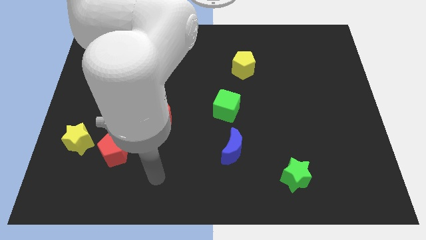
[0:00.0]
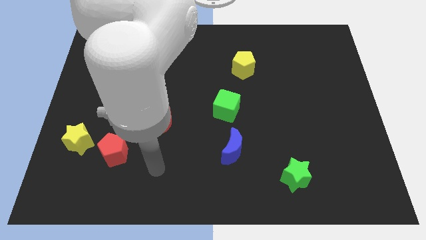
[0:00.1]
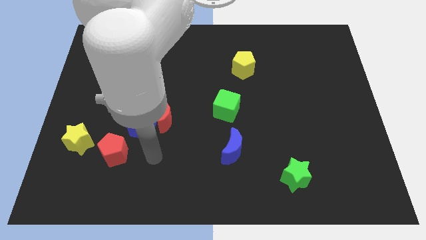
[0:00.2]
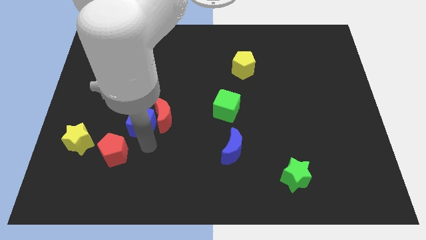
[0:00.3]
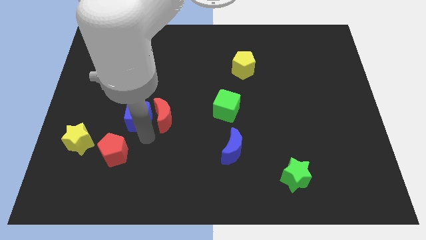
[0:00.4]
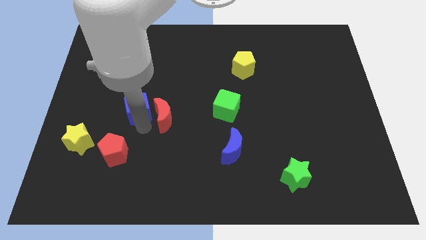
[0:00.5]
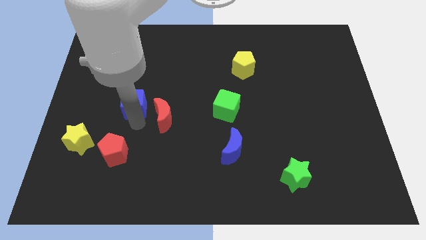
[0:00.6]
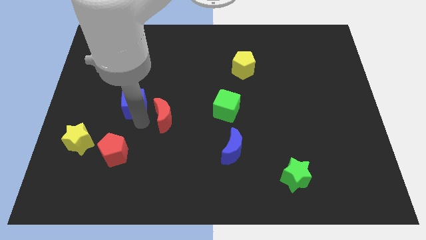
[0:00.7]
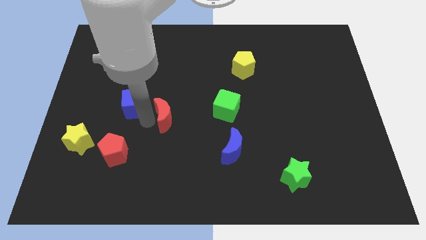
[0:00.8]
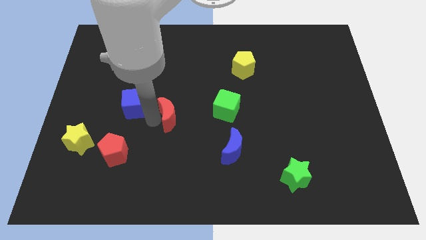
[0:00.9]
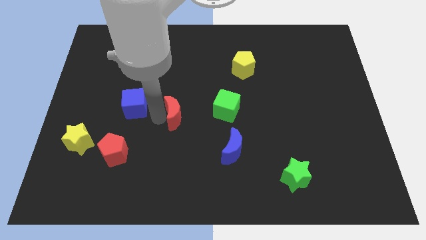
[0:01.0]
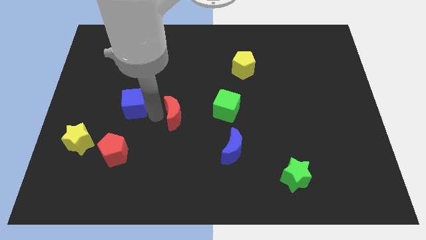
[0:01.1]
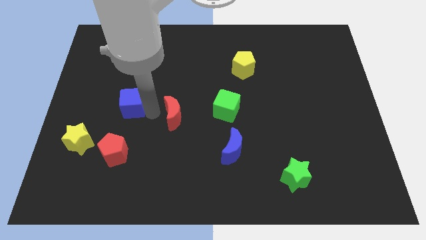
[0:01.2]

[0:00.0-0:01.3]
separate the red moon from the blue cube

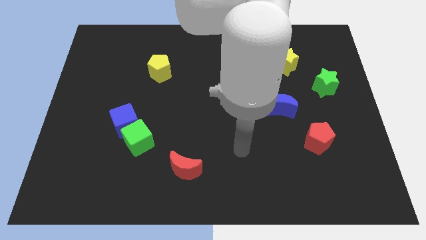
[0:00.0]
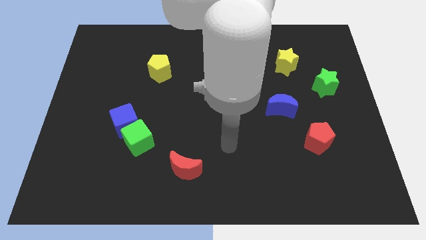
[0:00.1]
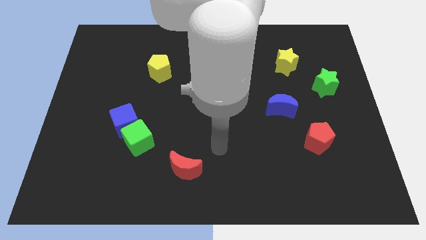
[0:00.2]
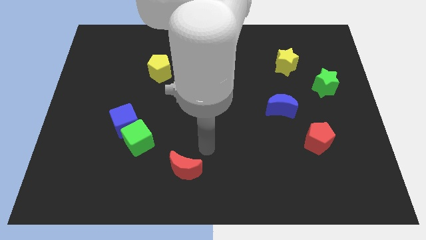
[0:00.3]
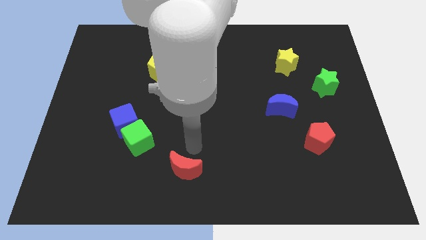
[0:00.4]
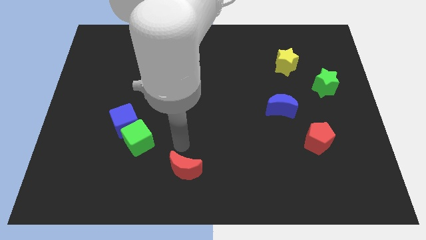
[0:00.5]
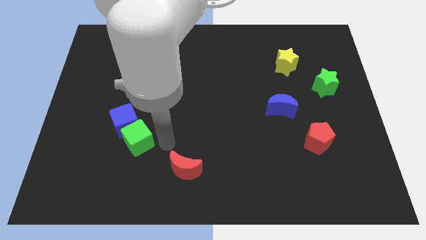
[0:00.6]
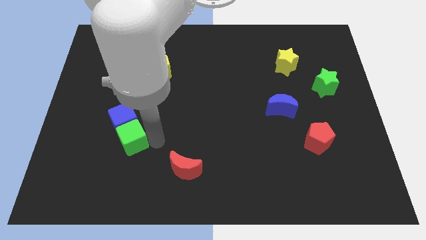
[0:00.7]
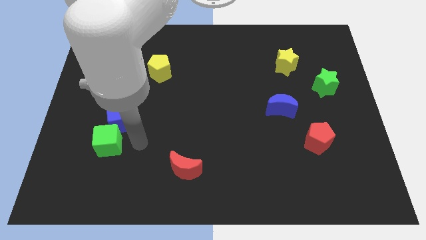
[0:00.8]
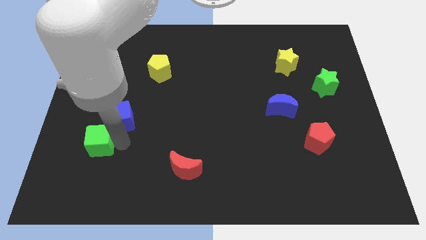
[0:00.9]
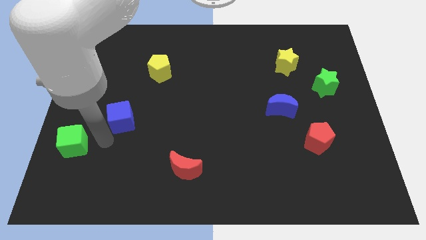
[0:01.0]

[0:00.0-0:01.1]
pull the blue cube apart from the green cube

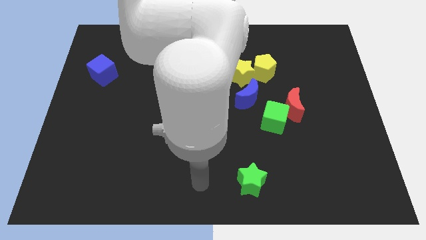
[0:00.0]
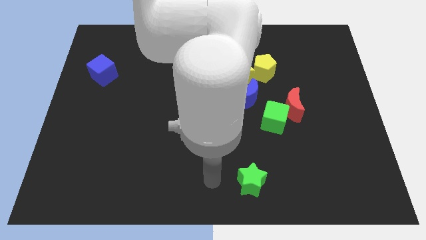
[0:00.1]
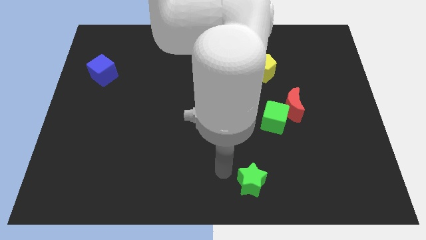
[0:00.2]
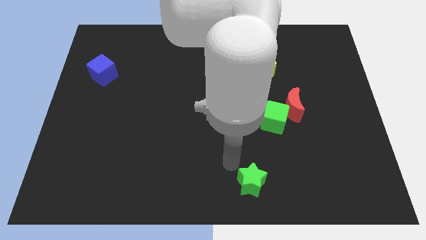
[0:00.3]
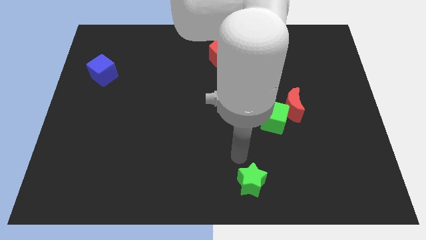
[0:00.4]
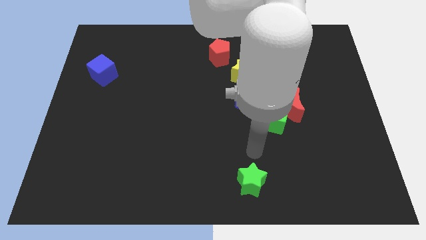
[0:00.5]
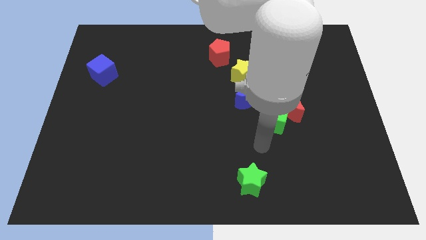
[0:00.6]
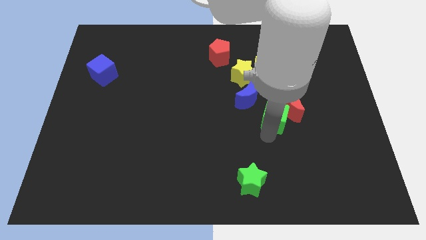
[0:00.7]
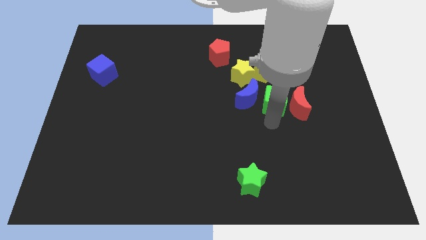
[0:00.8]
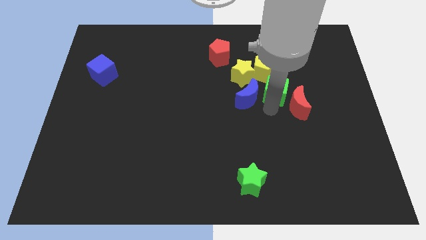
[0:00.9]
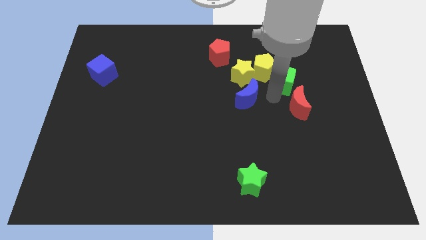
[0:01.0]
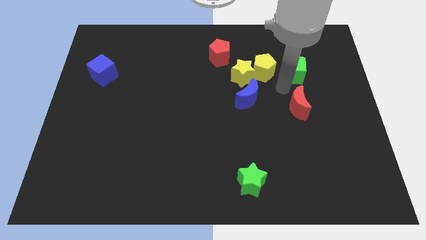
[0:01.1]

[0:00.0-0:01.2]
pull the red moon apart from the green cube

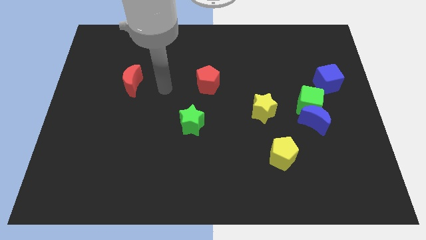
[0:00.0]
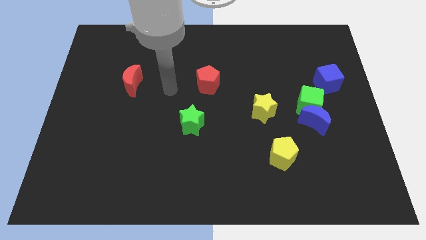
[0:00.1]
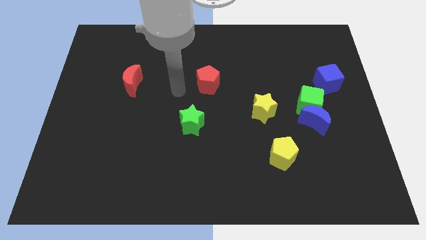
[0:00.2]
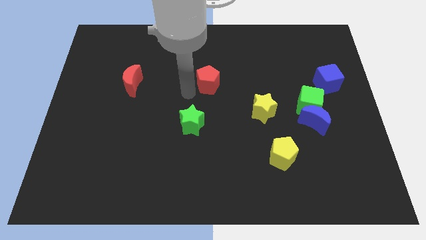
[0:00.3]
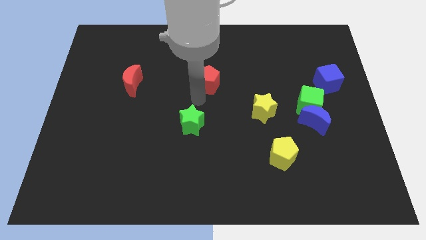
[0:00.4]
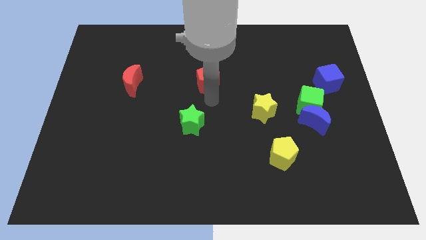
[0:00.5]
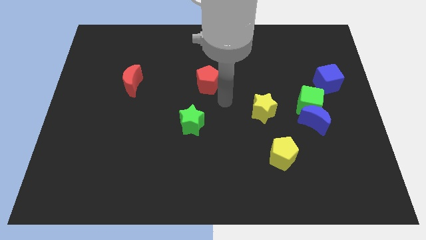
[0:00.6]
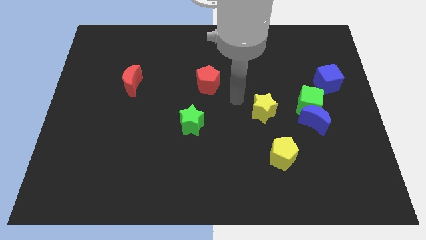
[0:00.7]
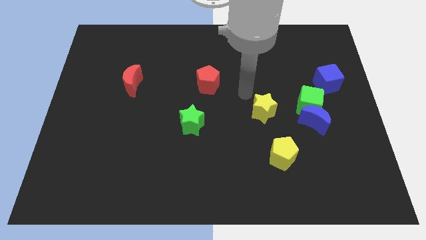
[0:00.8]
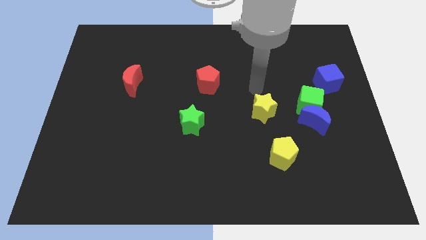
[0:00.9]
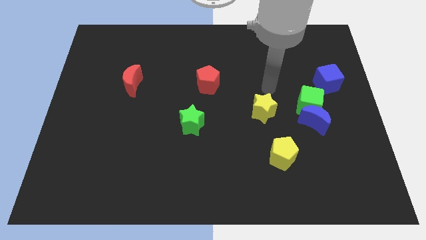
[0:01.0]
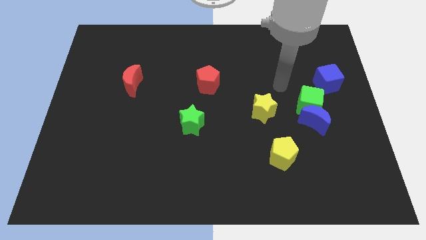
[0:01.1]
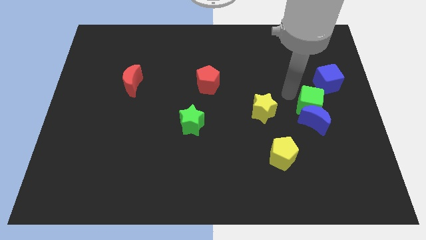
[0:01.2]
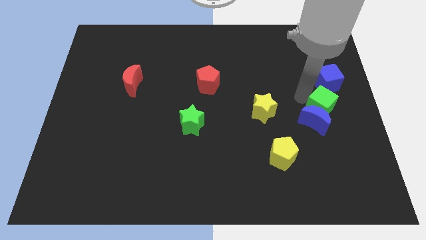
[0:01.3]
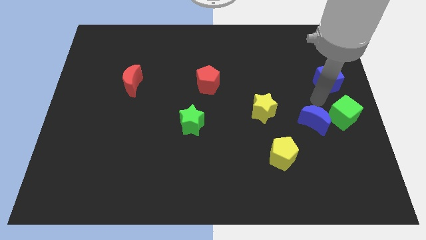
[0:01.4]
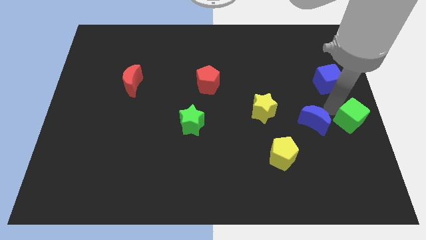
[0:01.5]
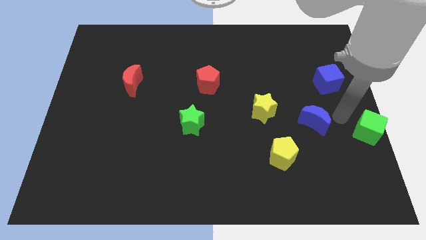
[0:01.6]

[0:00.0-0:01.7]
move the blue moon away from the green cube

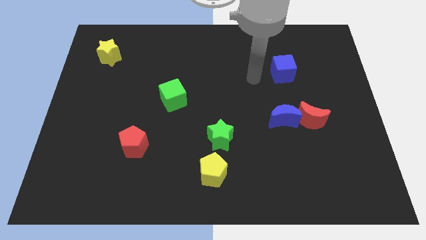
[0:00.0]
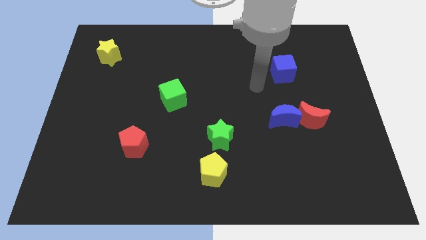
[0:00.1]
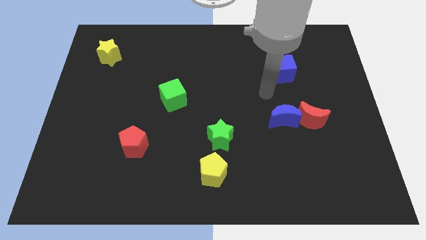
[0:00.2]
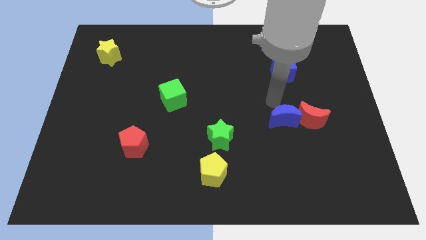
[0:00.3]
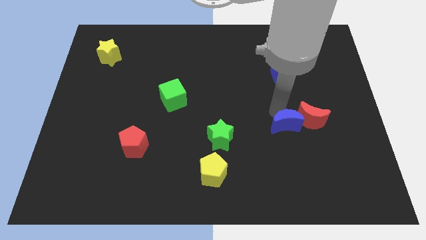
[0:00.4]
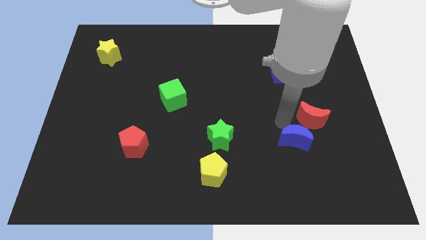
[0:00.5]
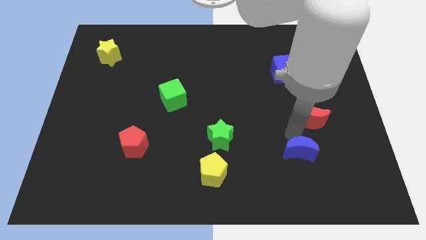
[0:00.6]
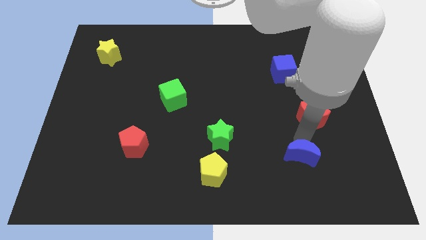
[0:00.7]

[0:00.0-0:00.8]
pull the red moon apart from the blue moon

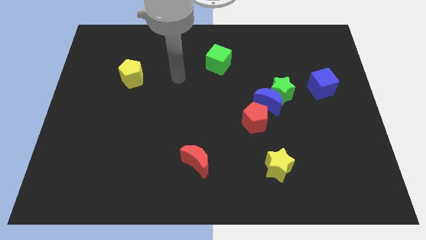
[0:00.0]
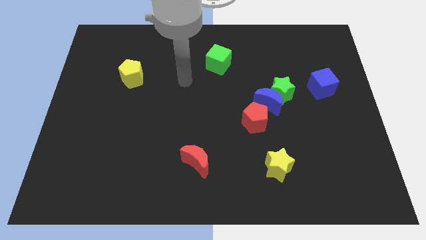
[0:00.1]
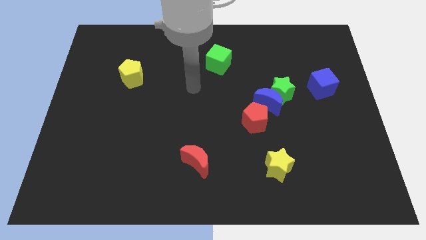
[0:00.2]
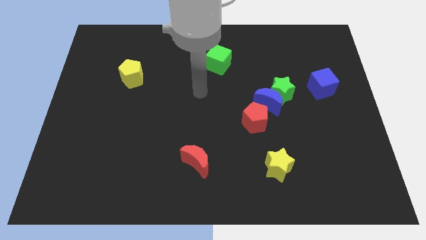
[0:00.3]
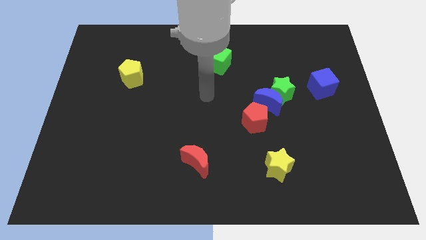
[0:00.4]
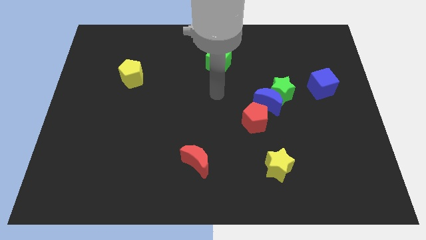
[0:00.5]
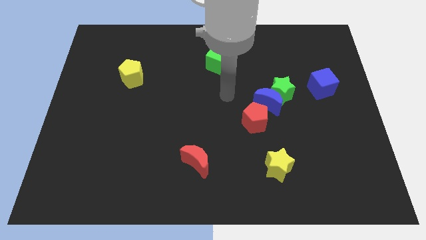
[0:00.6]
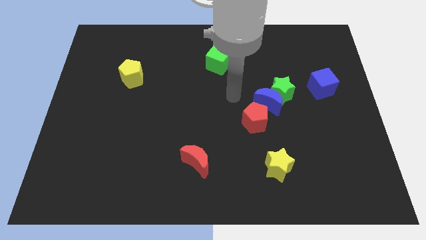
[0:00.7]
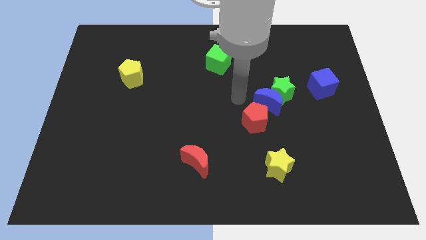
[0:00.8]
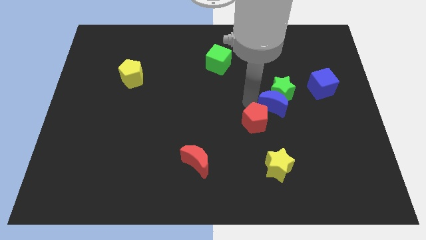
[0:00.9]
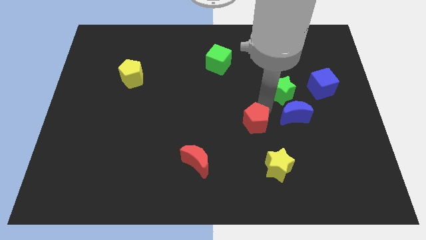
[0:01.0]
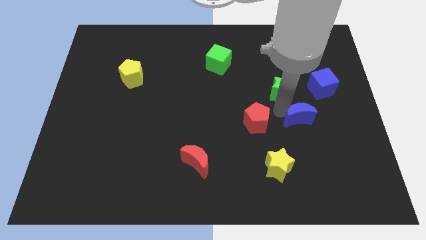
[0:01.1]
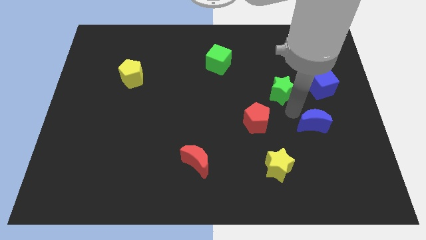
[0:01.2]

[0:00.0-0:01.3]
move the green star away from the blue moon

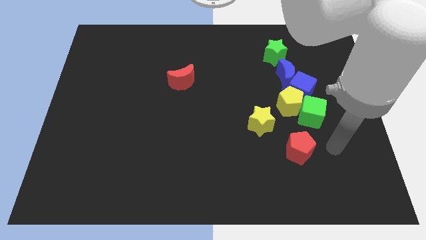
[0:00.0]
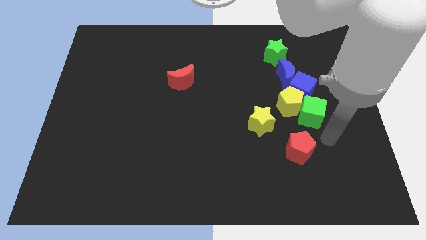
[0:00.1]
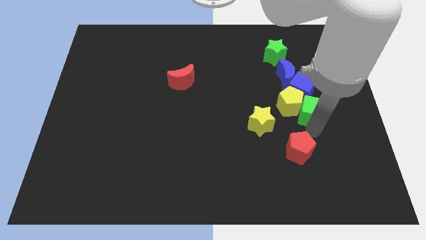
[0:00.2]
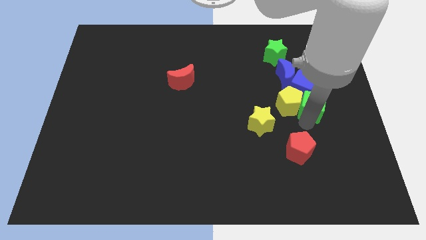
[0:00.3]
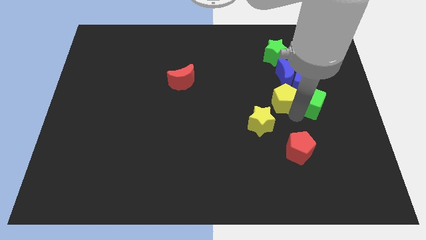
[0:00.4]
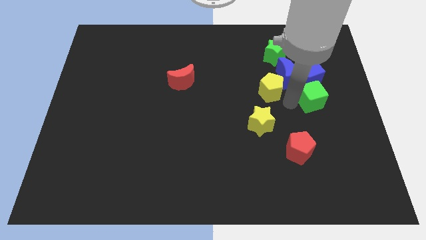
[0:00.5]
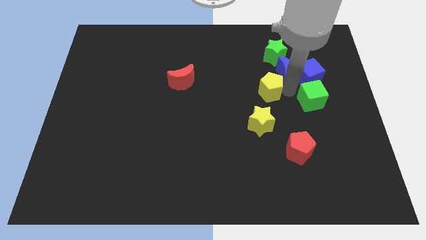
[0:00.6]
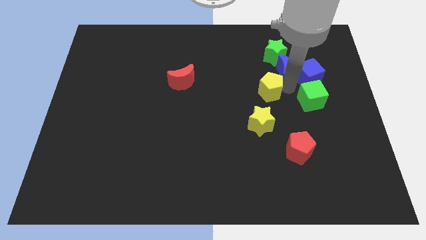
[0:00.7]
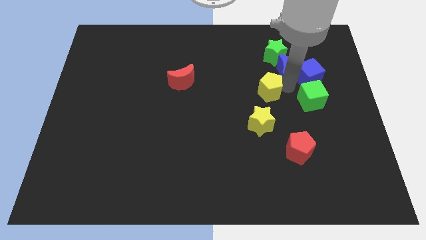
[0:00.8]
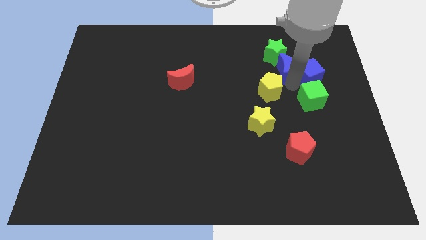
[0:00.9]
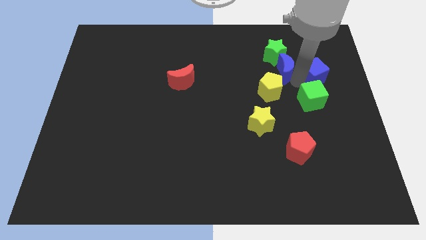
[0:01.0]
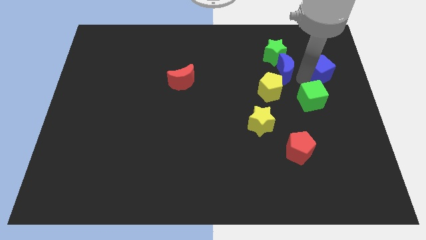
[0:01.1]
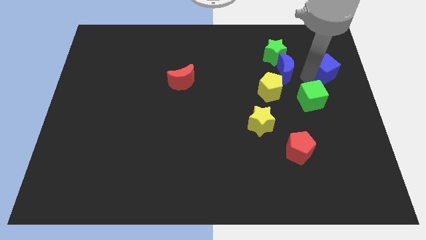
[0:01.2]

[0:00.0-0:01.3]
pull the blue cube apart from the blue moon, yellow pentagon, and green cube

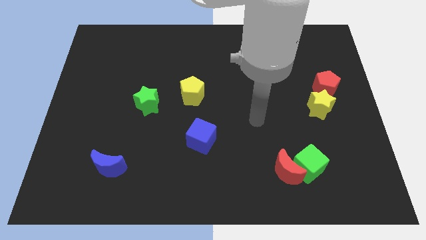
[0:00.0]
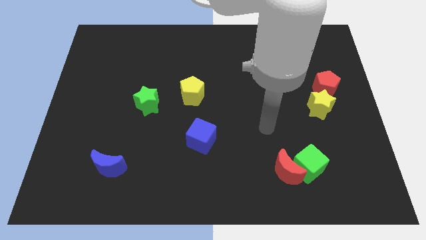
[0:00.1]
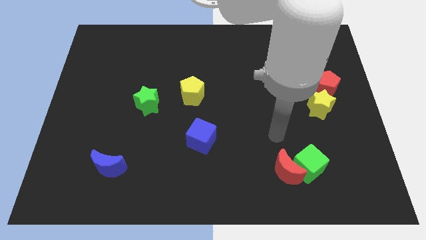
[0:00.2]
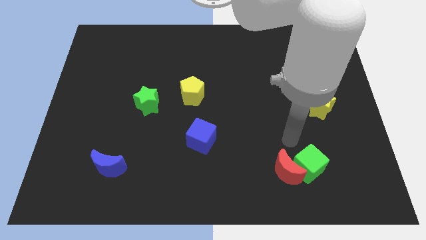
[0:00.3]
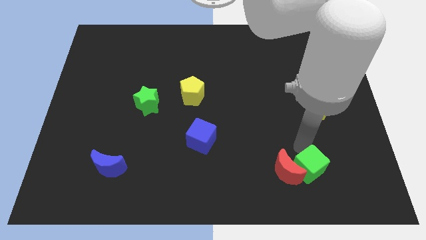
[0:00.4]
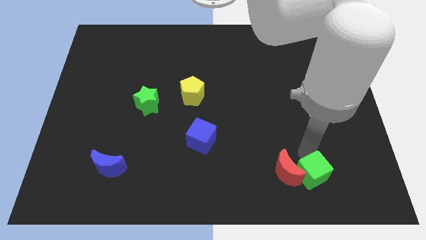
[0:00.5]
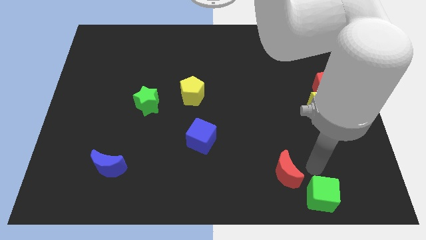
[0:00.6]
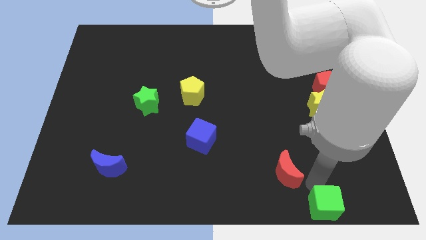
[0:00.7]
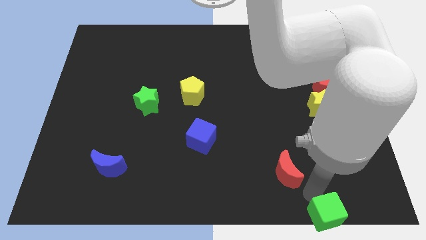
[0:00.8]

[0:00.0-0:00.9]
move the red moon away from the green cube
